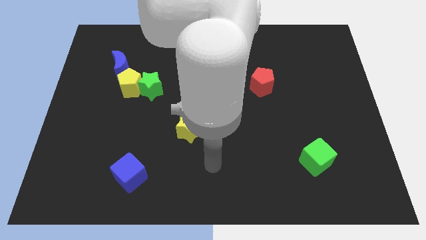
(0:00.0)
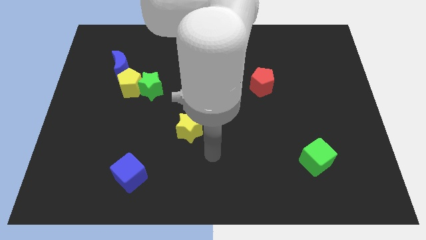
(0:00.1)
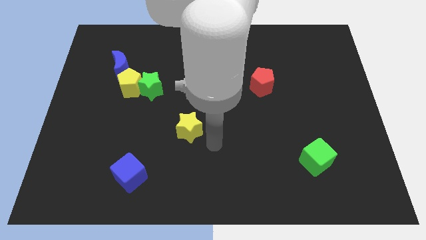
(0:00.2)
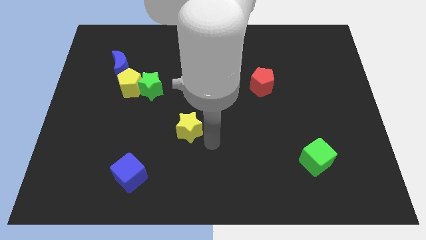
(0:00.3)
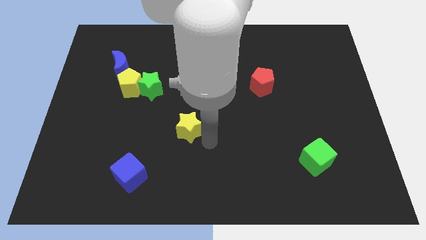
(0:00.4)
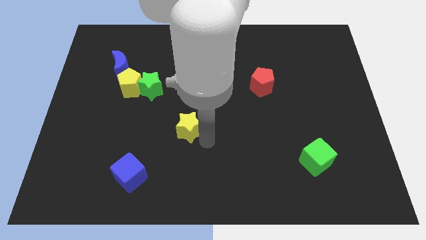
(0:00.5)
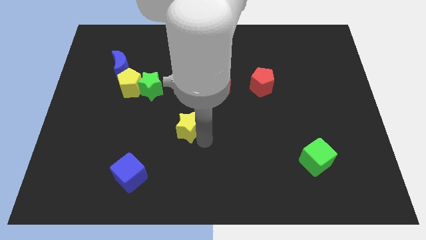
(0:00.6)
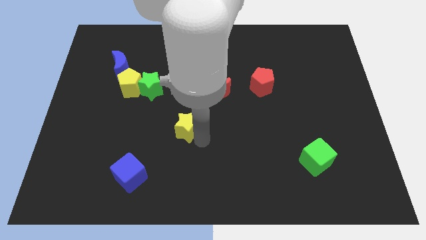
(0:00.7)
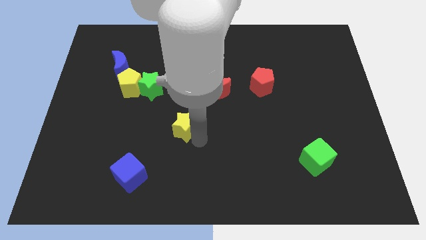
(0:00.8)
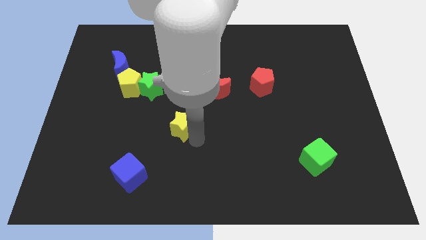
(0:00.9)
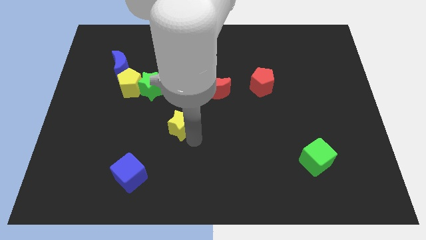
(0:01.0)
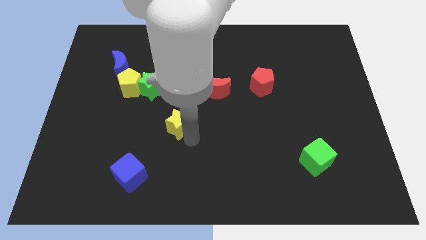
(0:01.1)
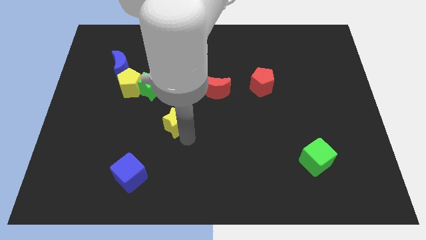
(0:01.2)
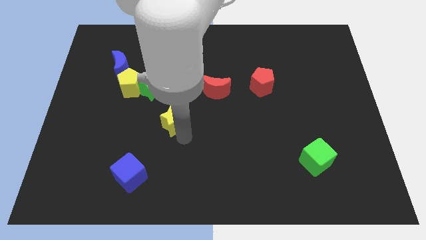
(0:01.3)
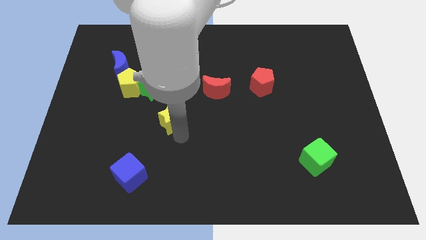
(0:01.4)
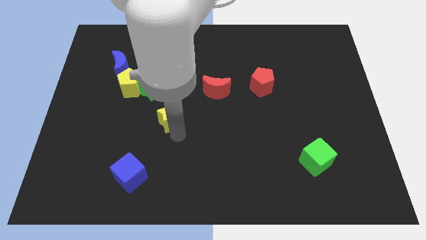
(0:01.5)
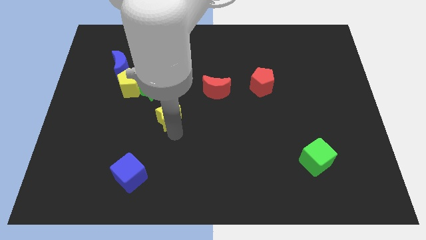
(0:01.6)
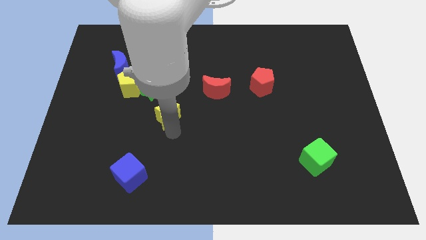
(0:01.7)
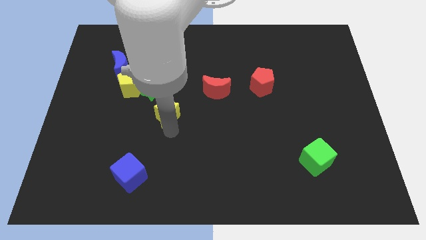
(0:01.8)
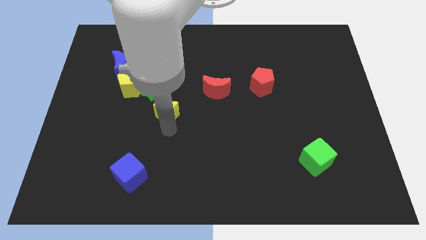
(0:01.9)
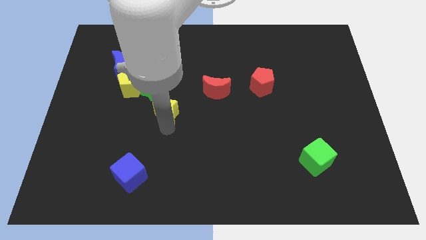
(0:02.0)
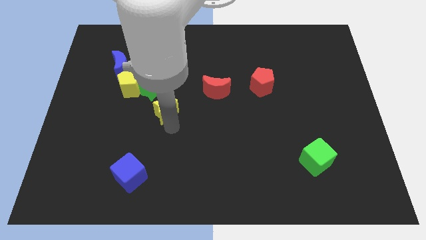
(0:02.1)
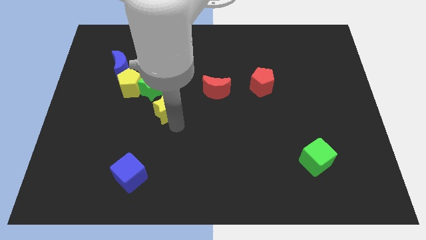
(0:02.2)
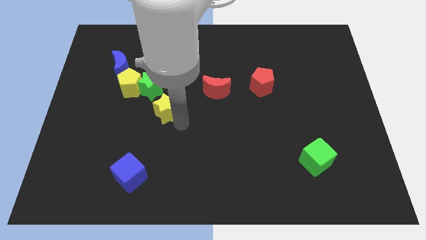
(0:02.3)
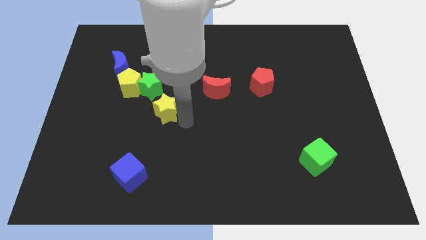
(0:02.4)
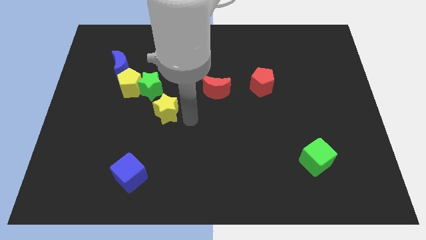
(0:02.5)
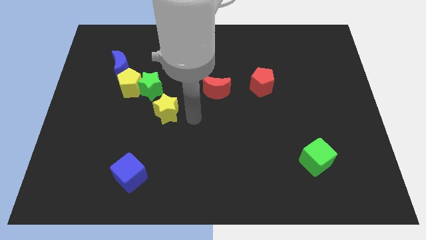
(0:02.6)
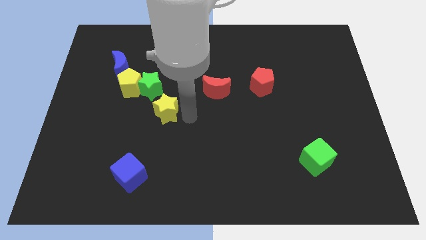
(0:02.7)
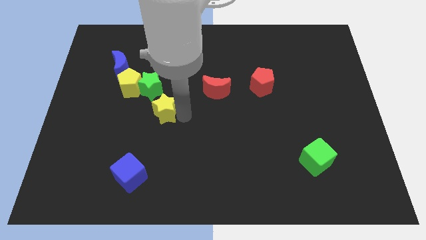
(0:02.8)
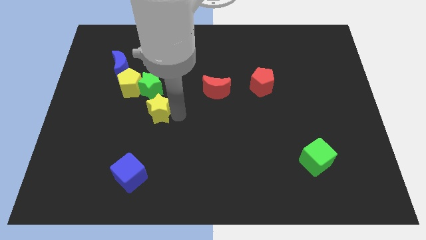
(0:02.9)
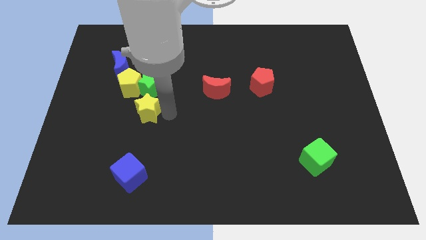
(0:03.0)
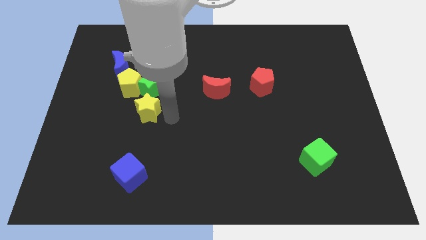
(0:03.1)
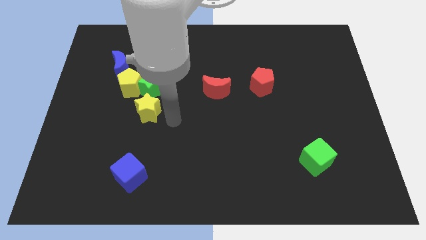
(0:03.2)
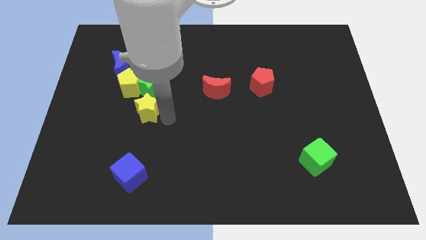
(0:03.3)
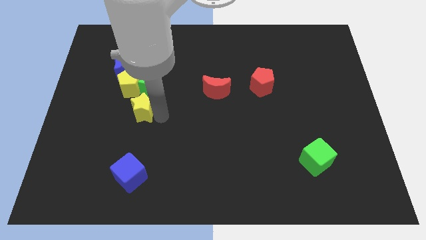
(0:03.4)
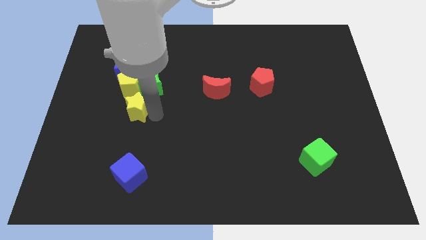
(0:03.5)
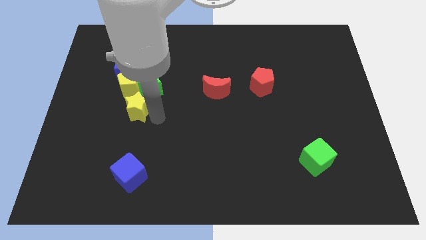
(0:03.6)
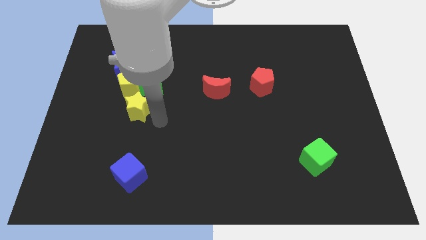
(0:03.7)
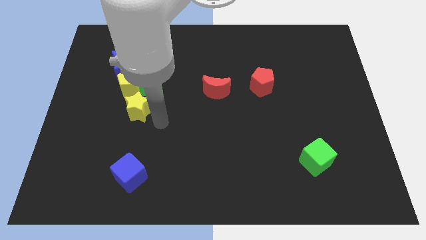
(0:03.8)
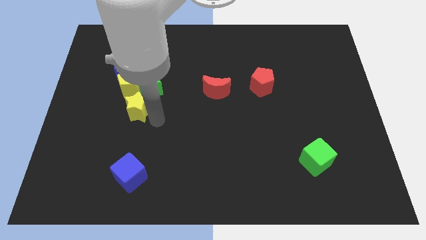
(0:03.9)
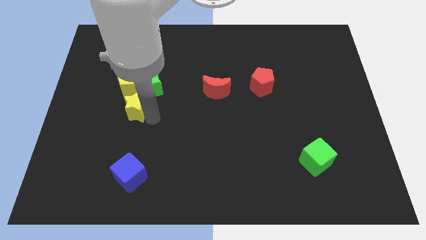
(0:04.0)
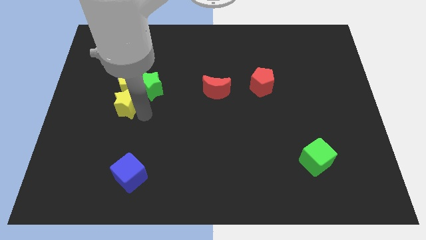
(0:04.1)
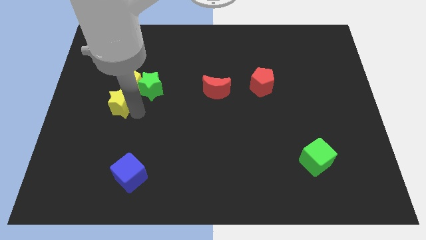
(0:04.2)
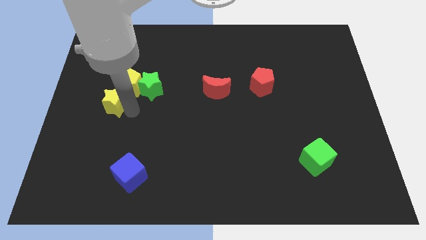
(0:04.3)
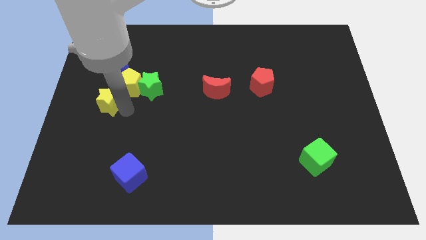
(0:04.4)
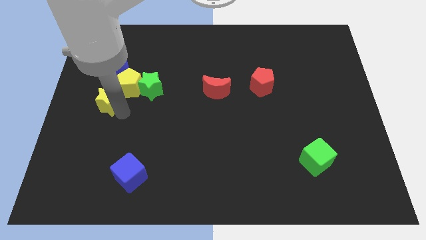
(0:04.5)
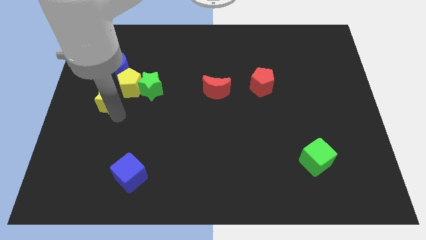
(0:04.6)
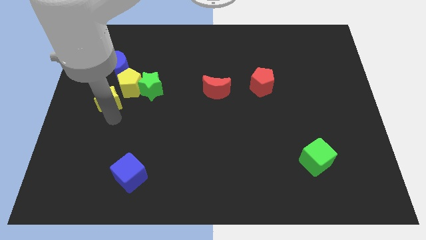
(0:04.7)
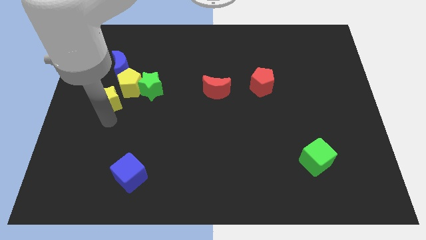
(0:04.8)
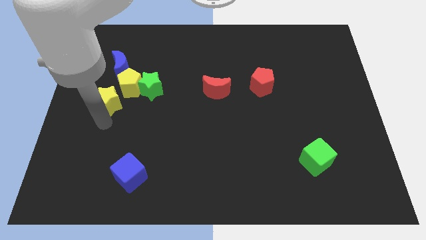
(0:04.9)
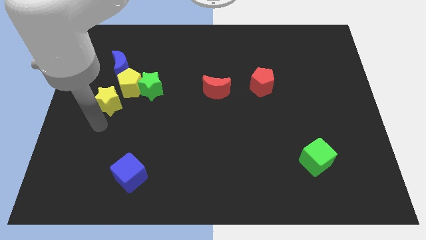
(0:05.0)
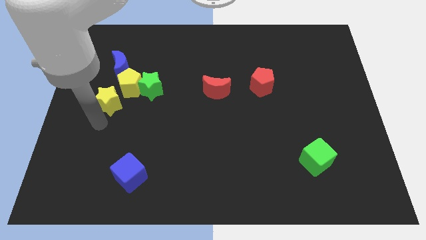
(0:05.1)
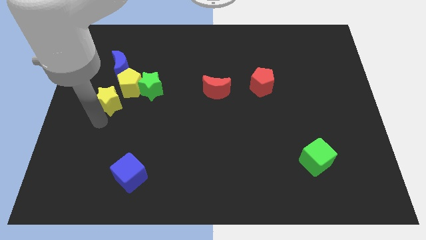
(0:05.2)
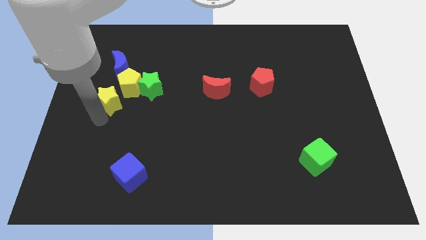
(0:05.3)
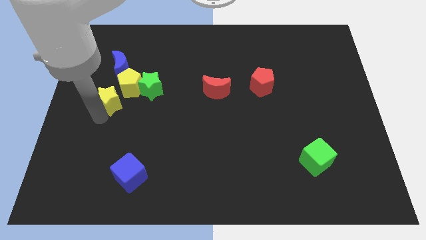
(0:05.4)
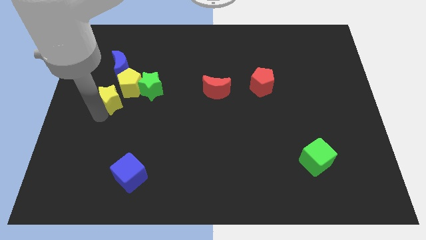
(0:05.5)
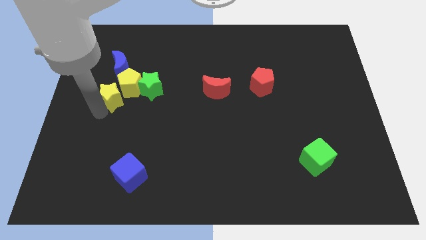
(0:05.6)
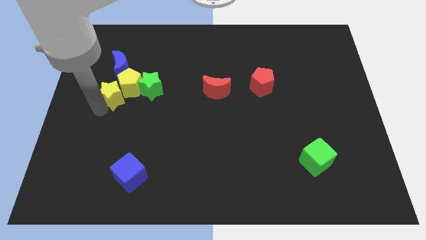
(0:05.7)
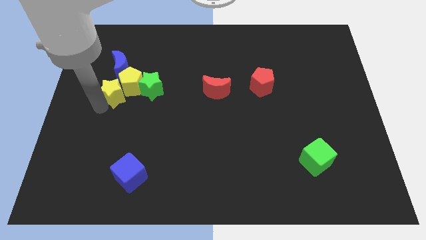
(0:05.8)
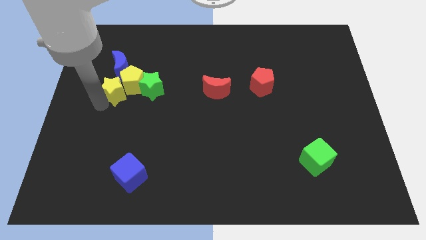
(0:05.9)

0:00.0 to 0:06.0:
move the yellow star diagonally upwards and to the left

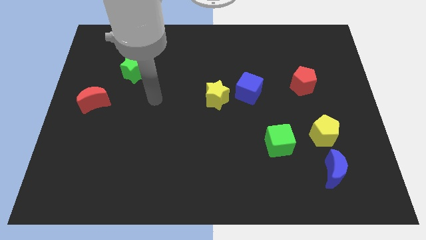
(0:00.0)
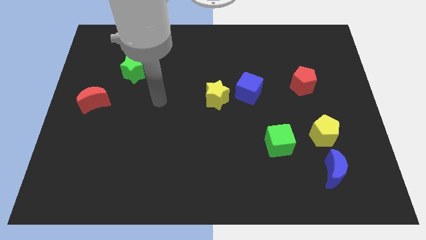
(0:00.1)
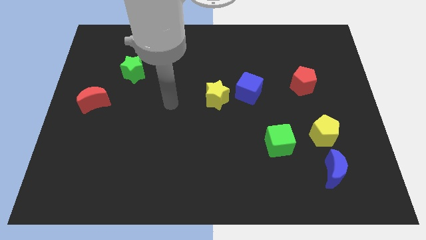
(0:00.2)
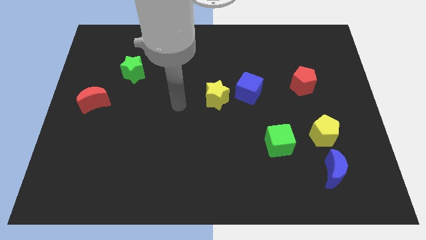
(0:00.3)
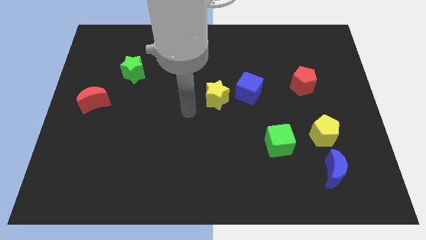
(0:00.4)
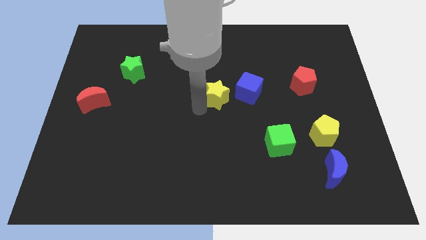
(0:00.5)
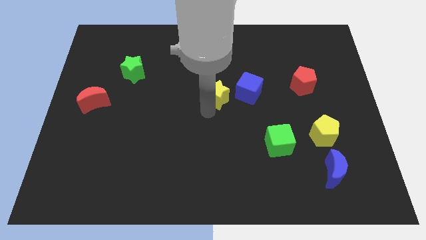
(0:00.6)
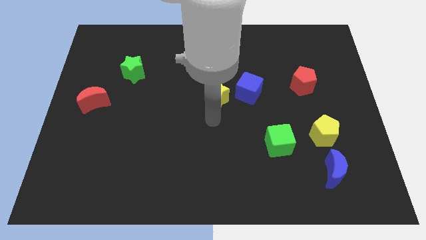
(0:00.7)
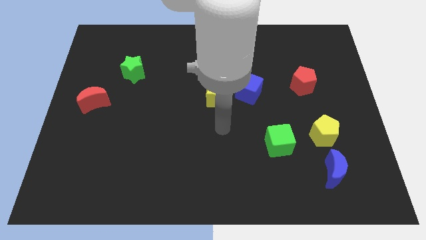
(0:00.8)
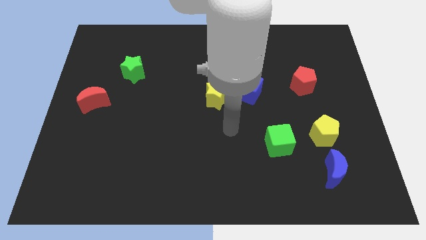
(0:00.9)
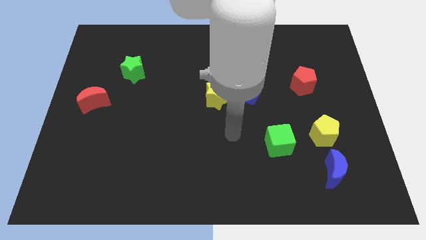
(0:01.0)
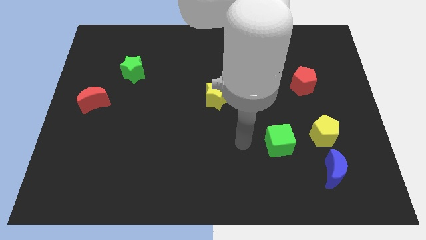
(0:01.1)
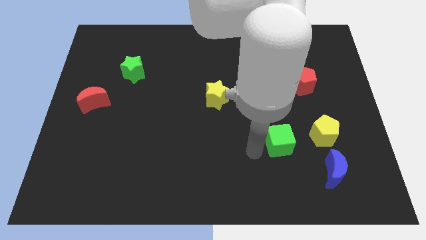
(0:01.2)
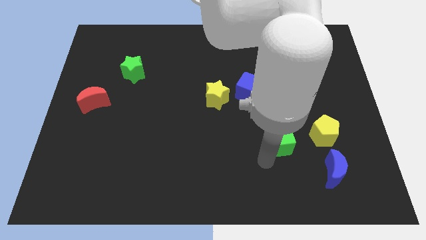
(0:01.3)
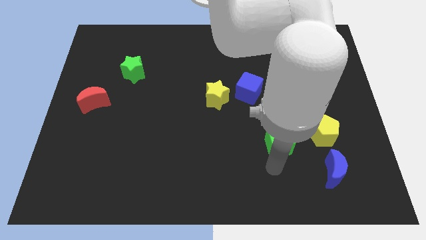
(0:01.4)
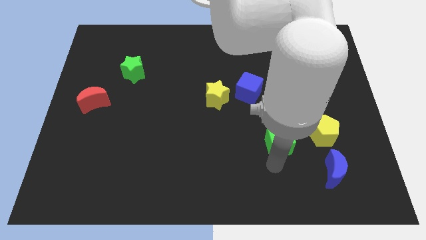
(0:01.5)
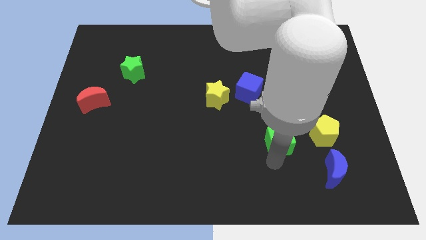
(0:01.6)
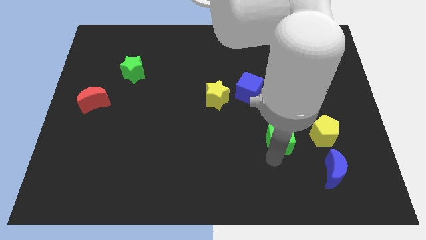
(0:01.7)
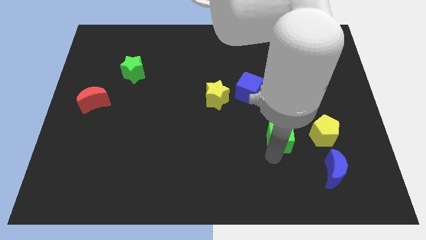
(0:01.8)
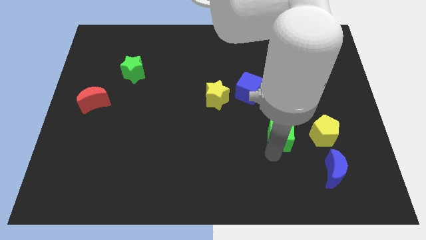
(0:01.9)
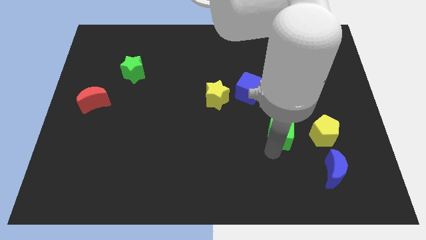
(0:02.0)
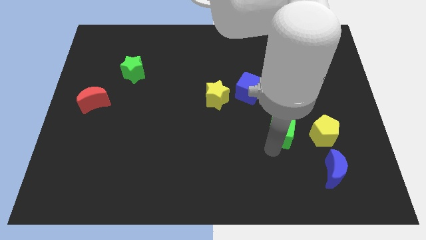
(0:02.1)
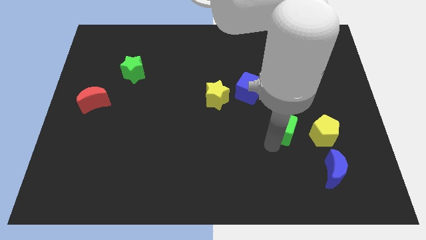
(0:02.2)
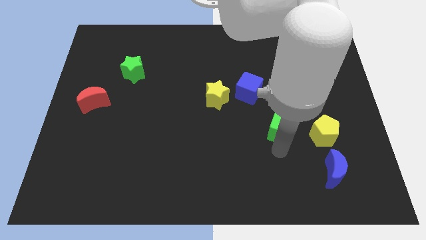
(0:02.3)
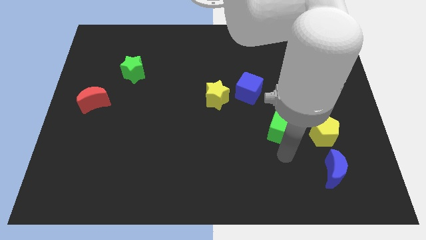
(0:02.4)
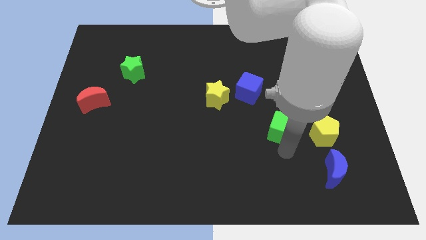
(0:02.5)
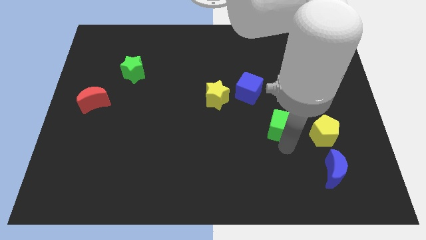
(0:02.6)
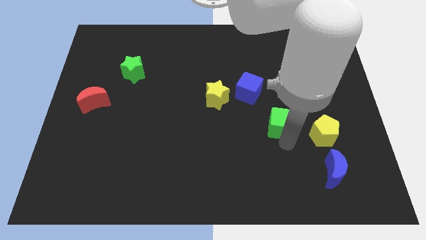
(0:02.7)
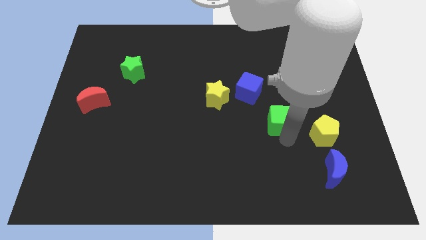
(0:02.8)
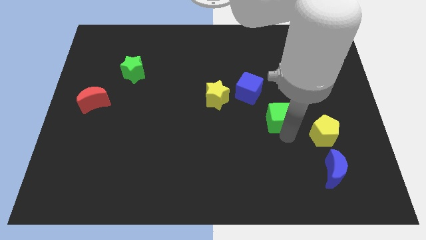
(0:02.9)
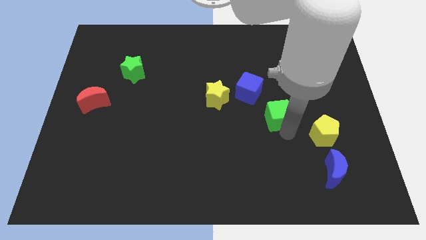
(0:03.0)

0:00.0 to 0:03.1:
move the green cube a little bit up
